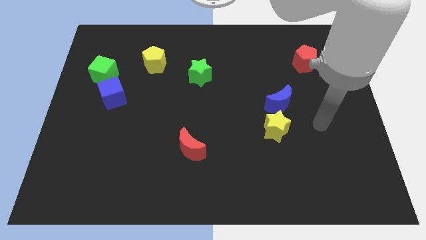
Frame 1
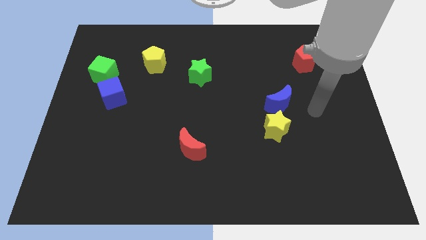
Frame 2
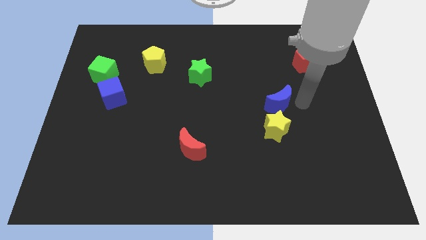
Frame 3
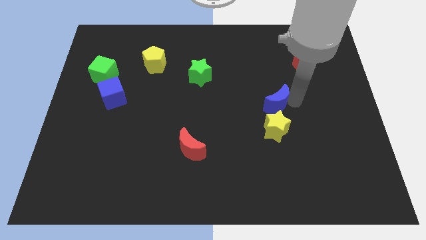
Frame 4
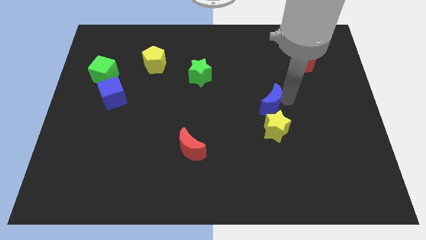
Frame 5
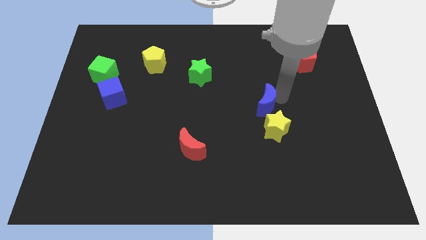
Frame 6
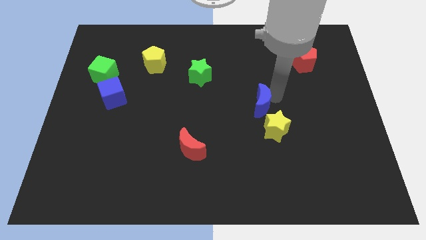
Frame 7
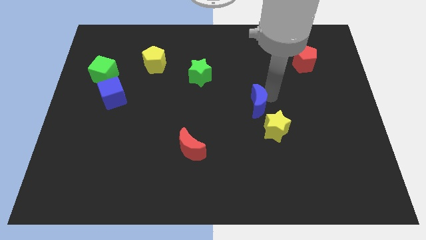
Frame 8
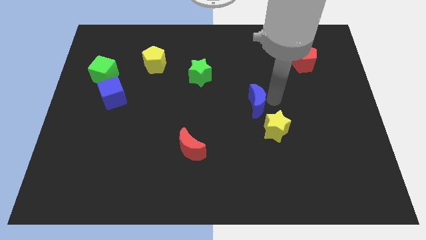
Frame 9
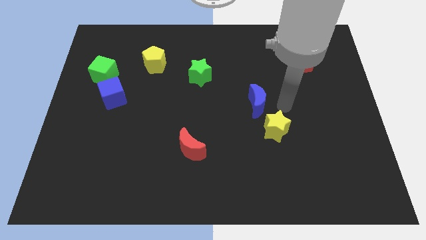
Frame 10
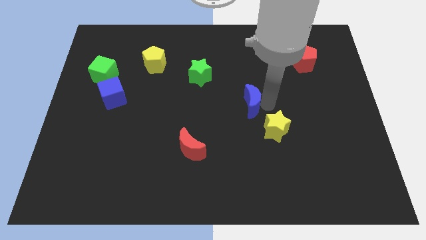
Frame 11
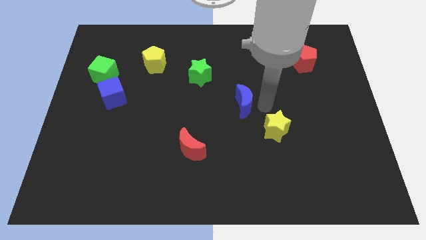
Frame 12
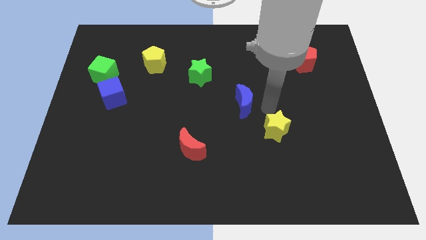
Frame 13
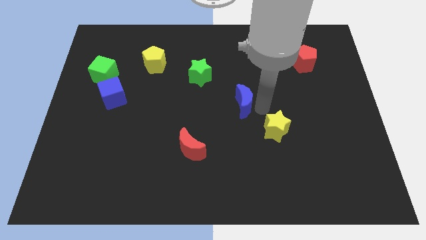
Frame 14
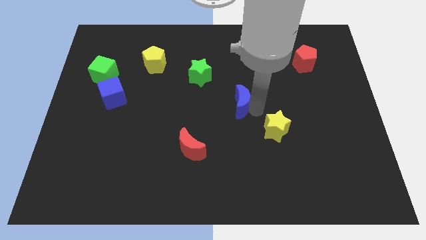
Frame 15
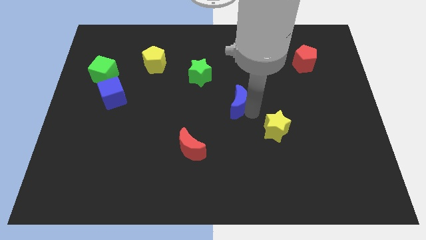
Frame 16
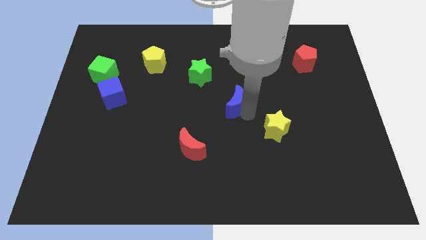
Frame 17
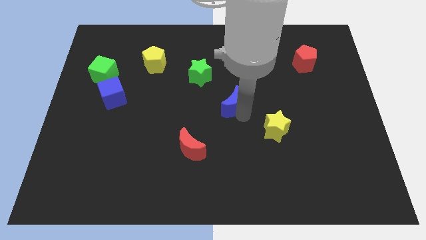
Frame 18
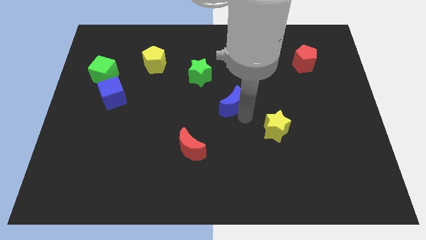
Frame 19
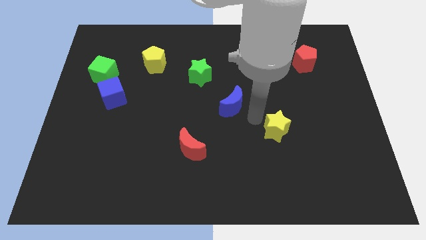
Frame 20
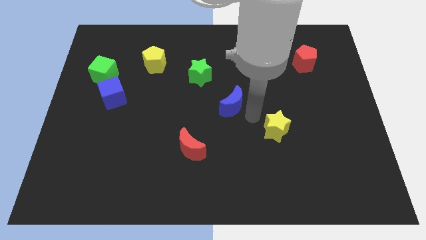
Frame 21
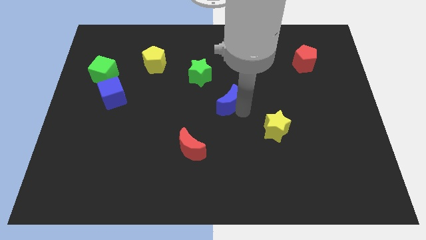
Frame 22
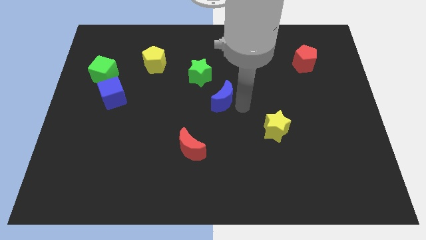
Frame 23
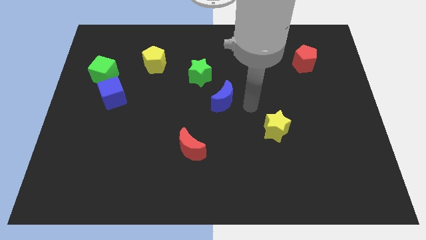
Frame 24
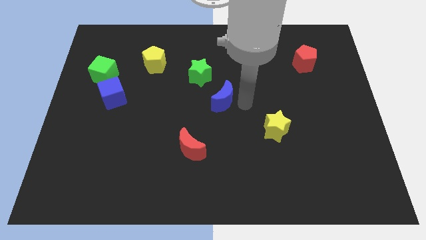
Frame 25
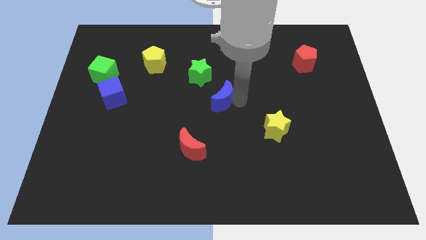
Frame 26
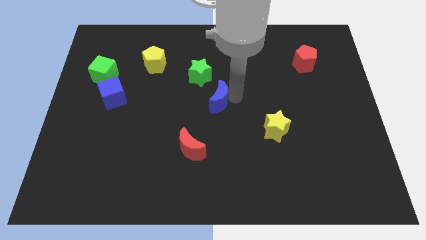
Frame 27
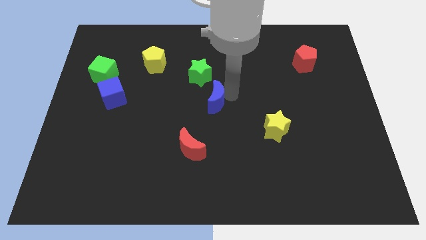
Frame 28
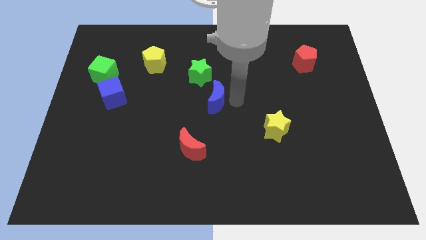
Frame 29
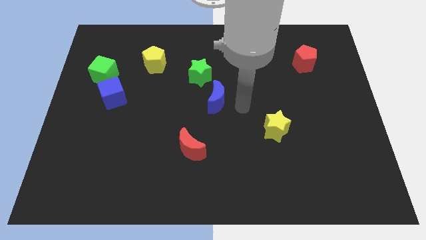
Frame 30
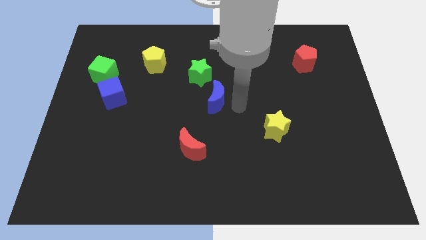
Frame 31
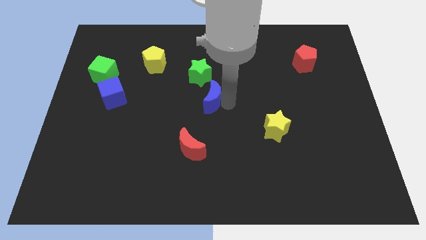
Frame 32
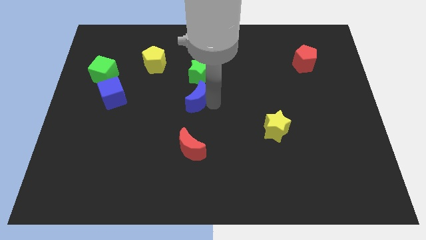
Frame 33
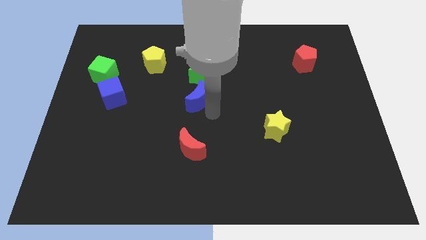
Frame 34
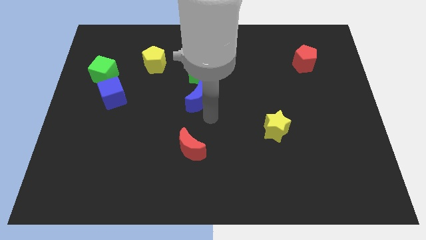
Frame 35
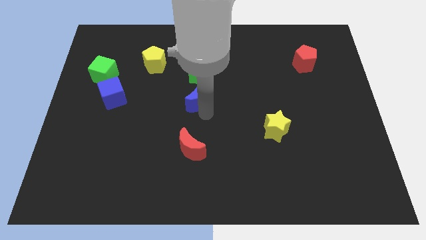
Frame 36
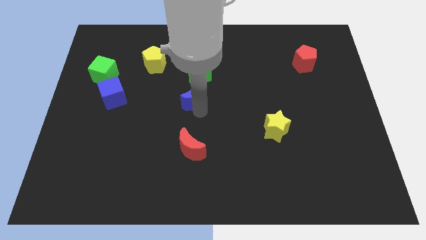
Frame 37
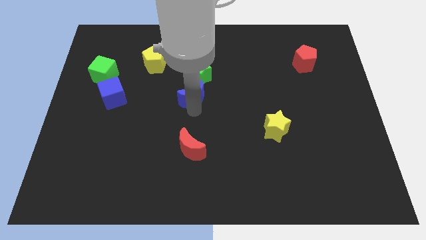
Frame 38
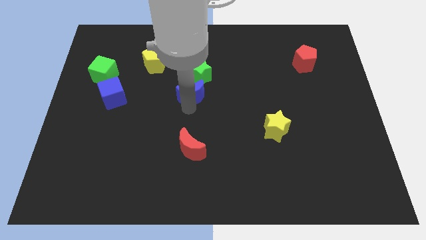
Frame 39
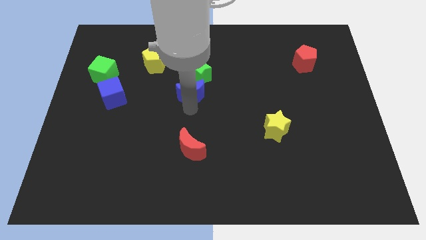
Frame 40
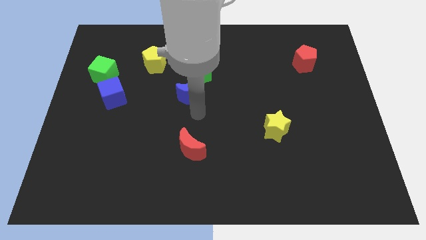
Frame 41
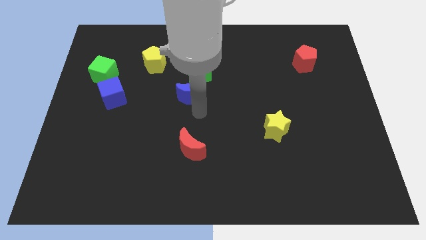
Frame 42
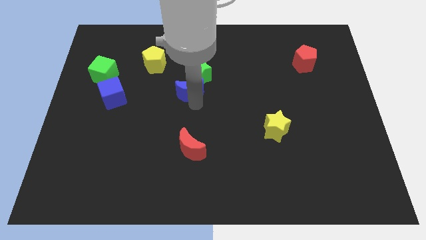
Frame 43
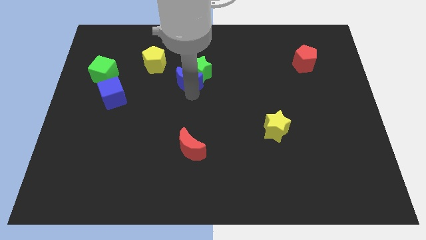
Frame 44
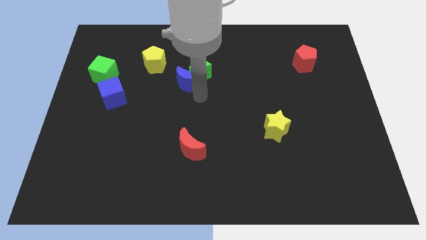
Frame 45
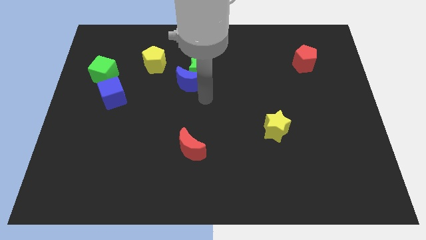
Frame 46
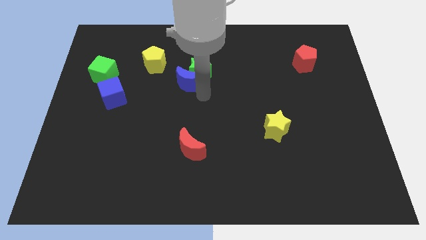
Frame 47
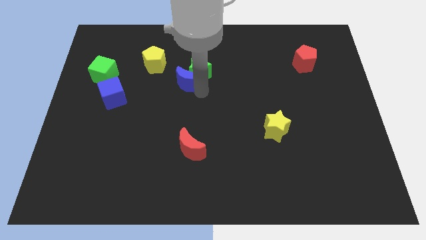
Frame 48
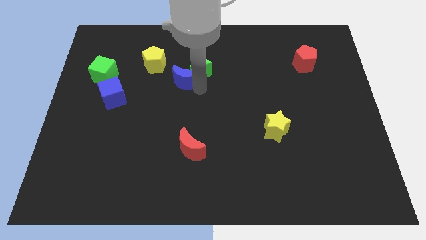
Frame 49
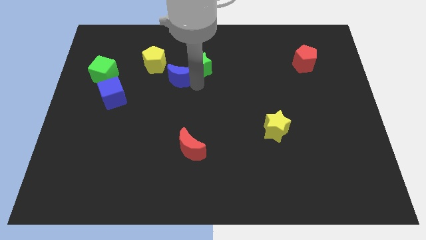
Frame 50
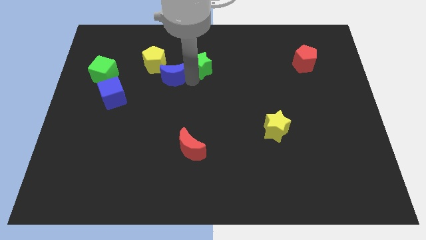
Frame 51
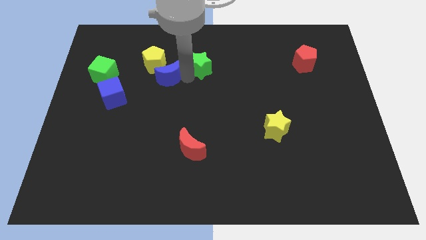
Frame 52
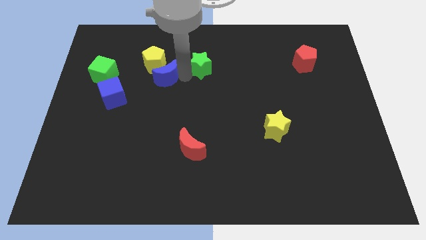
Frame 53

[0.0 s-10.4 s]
push the blue moon towards the yellow pentagon

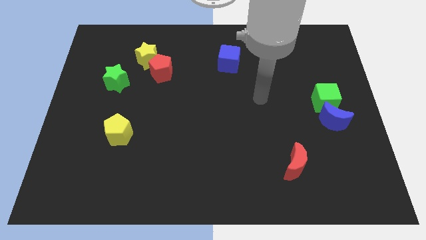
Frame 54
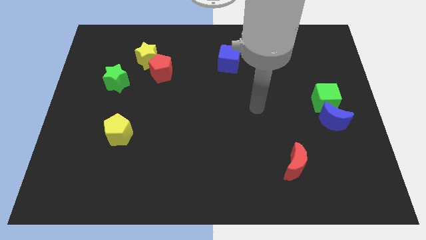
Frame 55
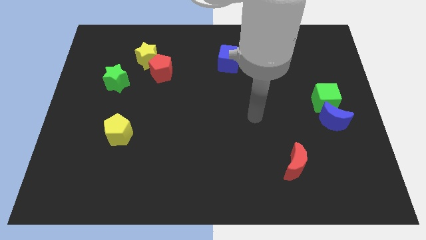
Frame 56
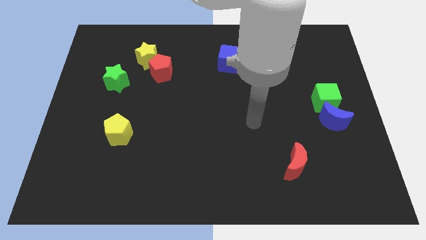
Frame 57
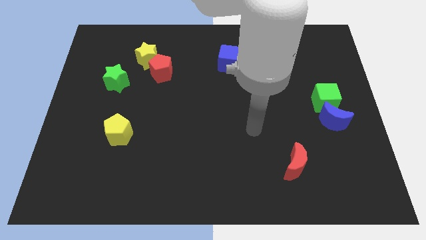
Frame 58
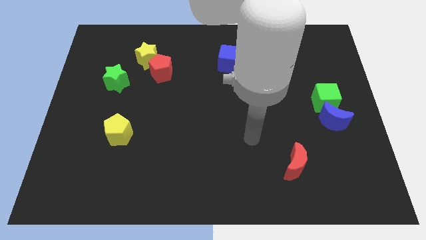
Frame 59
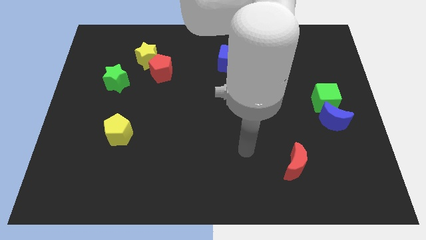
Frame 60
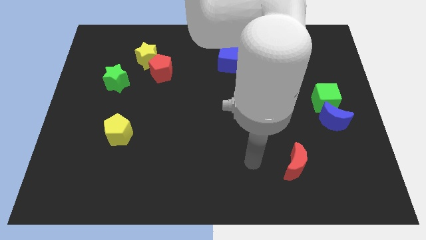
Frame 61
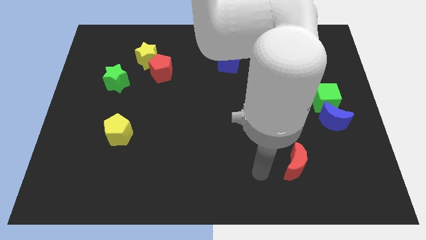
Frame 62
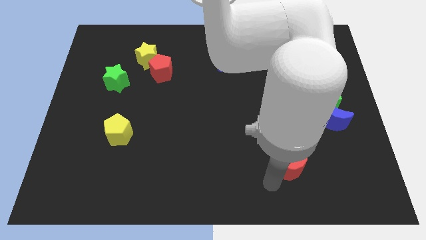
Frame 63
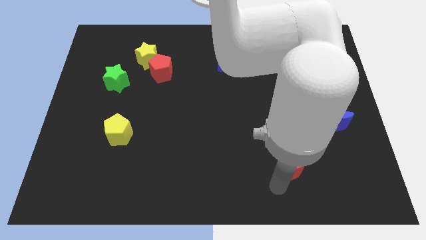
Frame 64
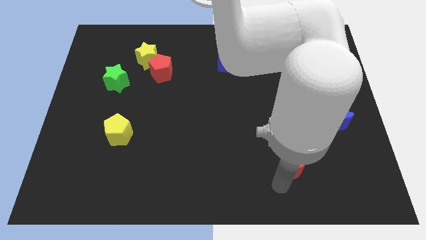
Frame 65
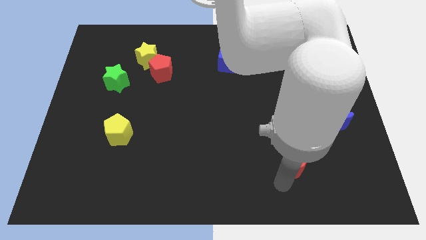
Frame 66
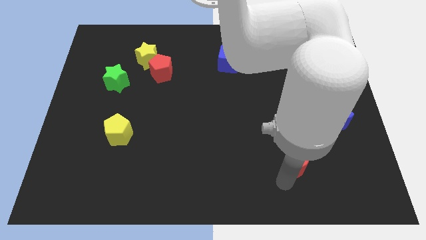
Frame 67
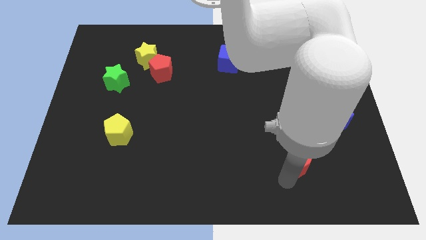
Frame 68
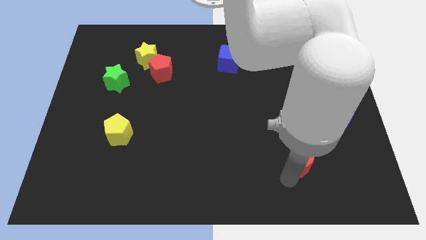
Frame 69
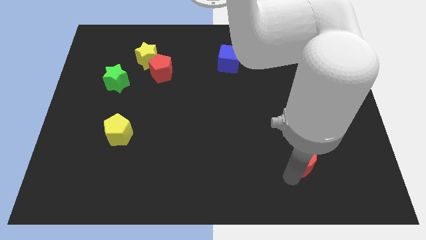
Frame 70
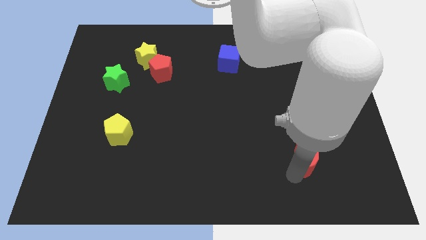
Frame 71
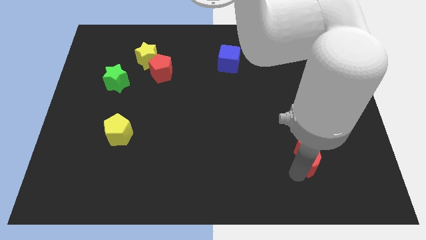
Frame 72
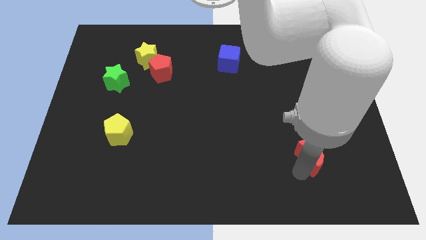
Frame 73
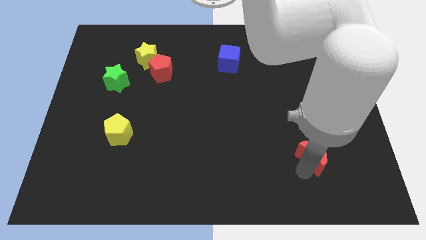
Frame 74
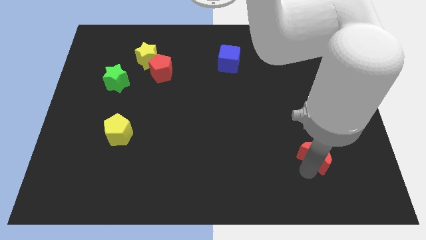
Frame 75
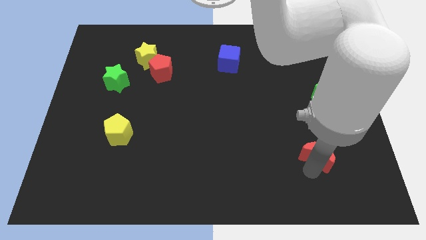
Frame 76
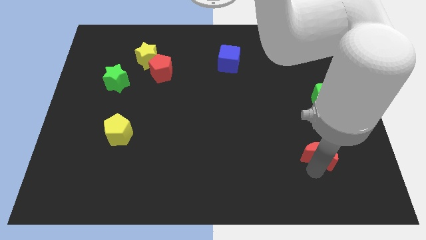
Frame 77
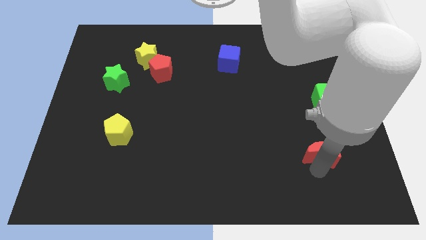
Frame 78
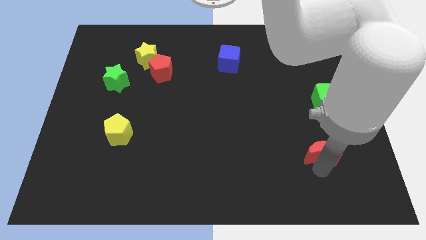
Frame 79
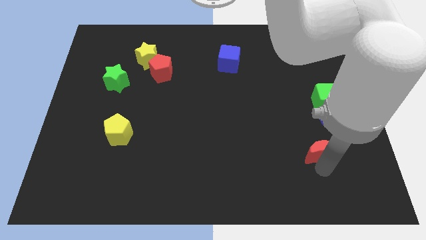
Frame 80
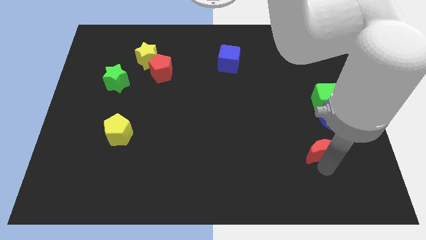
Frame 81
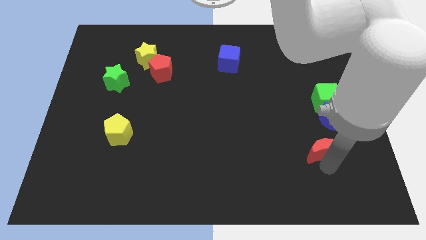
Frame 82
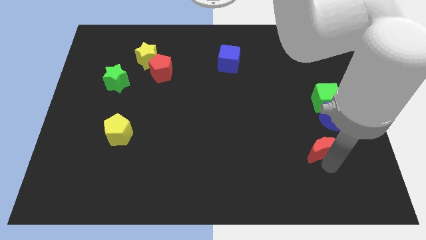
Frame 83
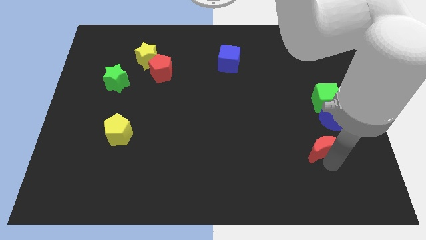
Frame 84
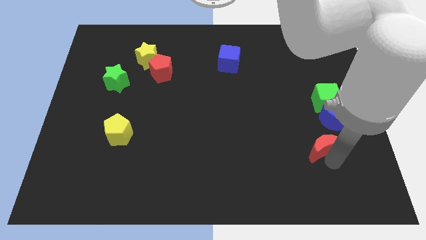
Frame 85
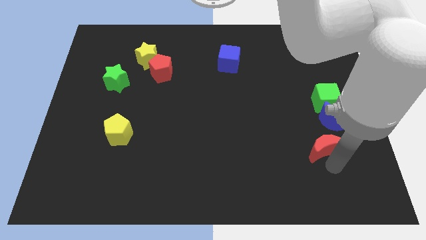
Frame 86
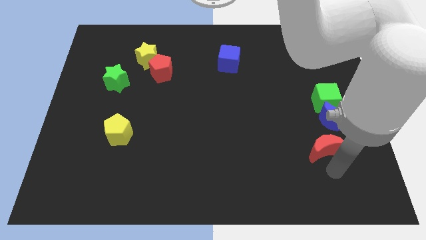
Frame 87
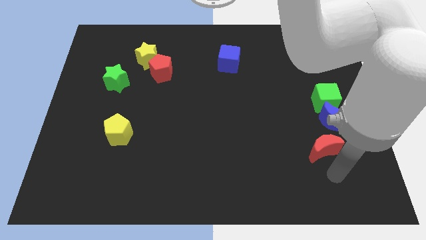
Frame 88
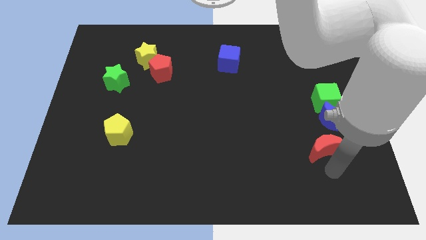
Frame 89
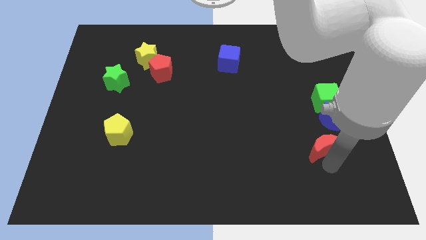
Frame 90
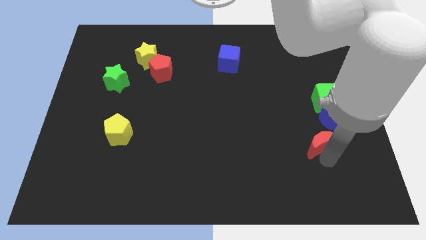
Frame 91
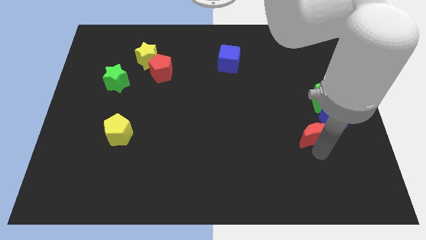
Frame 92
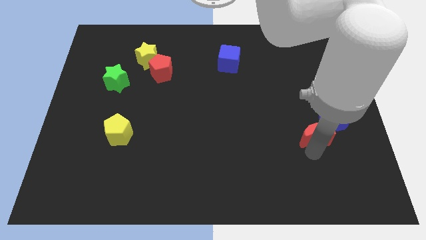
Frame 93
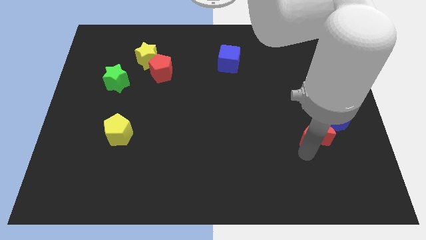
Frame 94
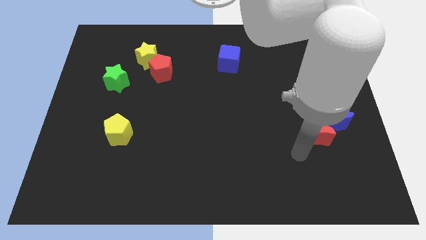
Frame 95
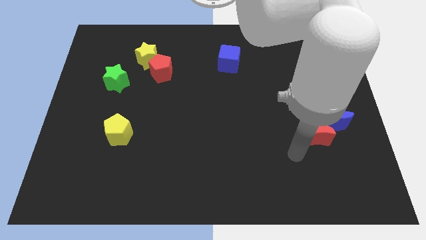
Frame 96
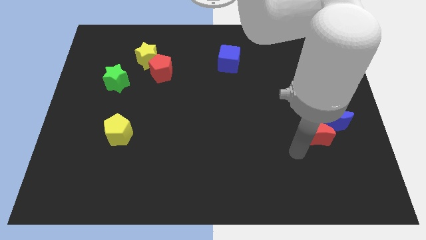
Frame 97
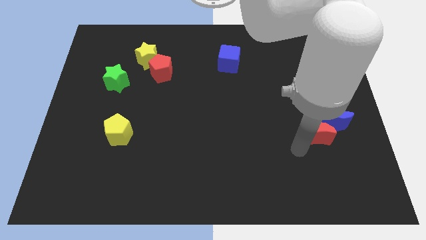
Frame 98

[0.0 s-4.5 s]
push the red moon to the blue moon
